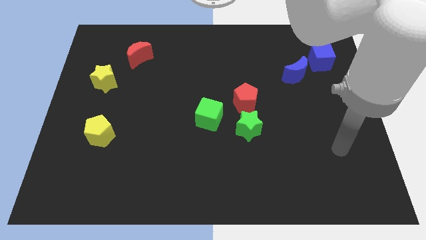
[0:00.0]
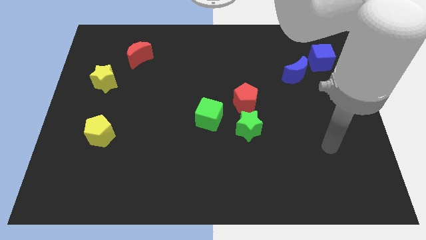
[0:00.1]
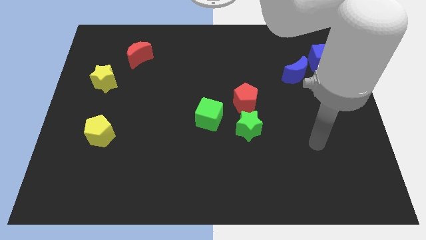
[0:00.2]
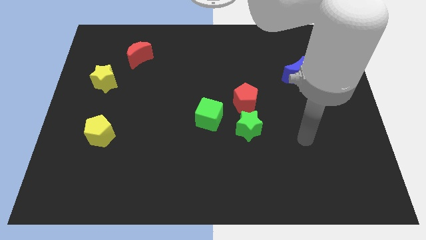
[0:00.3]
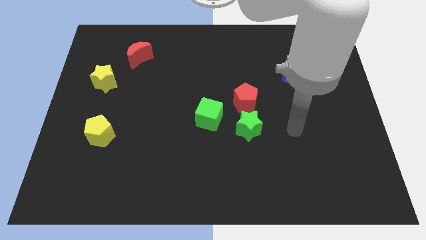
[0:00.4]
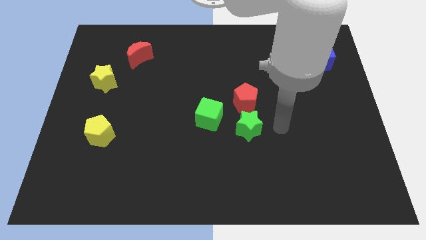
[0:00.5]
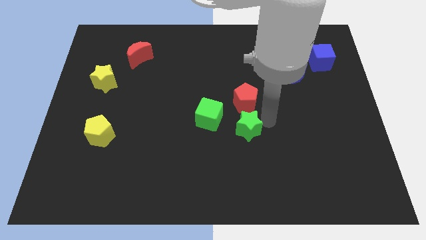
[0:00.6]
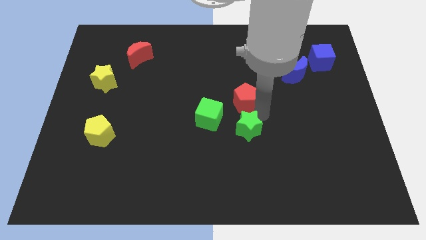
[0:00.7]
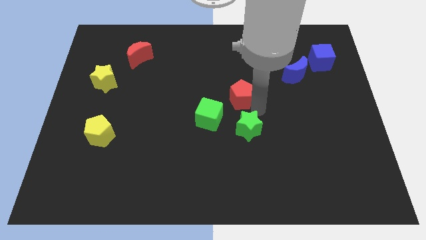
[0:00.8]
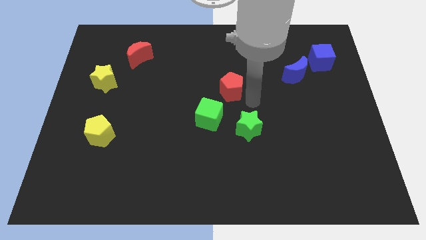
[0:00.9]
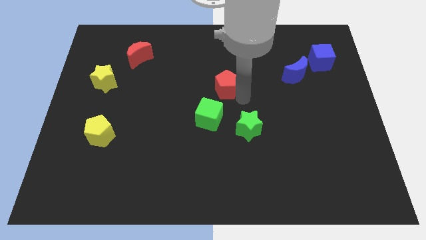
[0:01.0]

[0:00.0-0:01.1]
pull the green star apart from the red pentagon and green cube

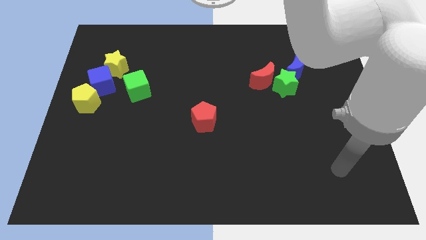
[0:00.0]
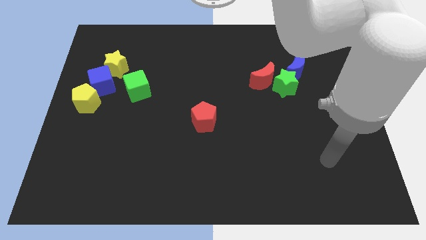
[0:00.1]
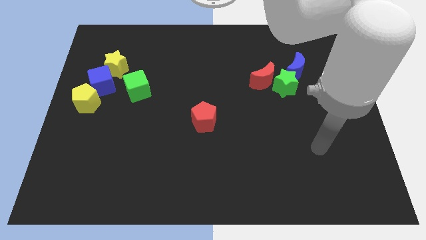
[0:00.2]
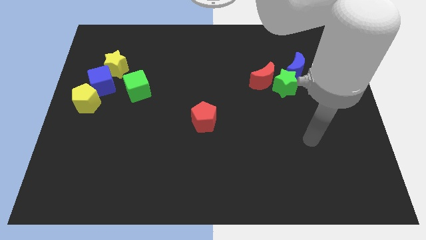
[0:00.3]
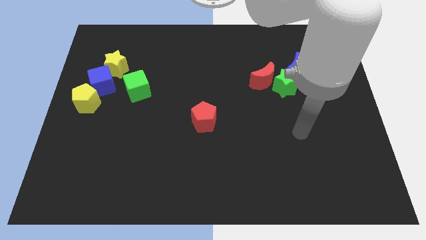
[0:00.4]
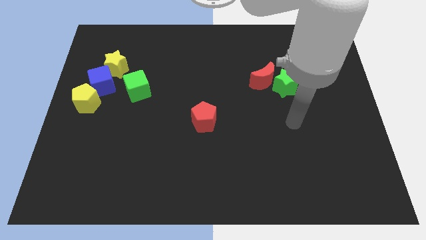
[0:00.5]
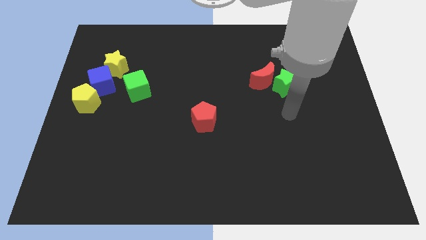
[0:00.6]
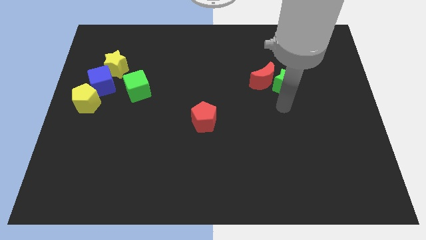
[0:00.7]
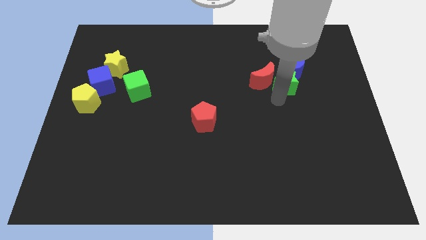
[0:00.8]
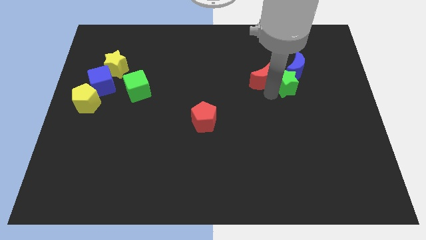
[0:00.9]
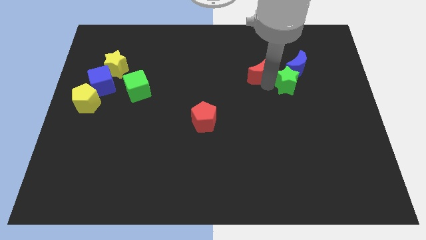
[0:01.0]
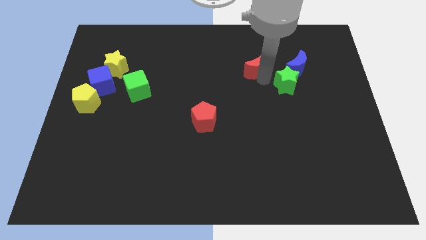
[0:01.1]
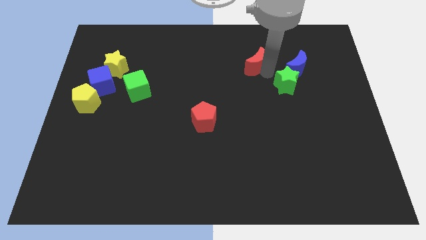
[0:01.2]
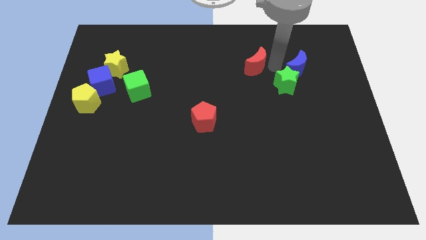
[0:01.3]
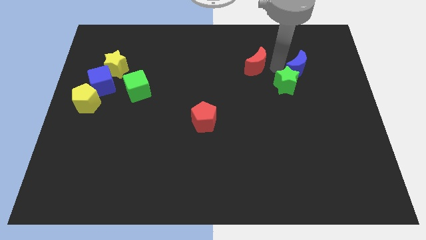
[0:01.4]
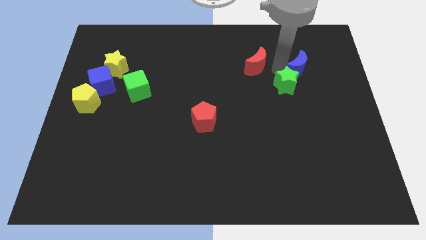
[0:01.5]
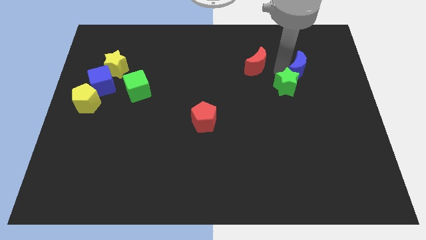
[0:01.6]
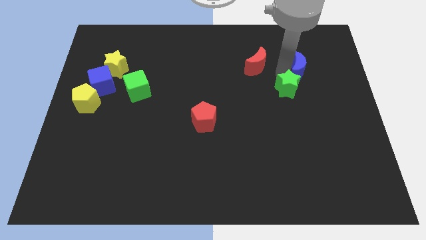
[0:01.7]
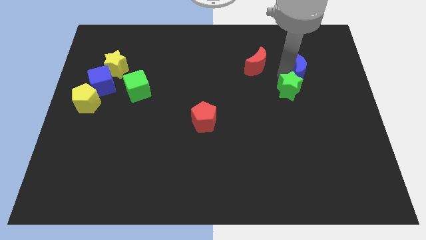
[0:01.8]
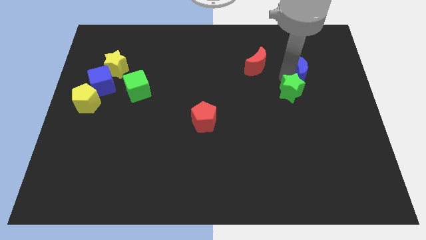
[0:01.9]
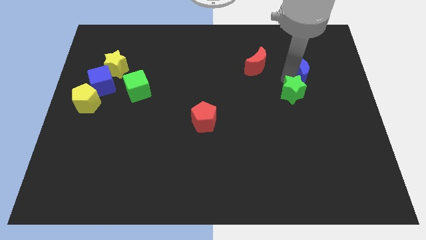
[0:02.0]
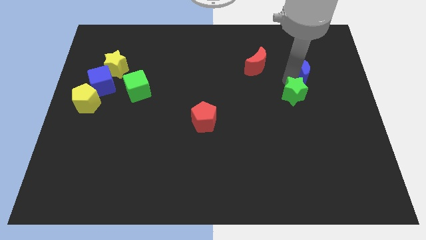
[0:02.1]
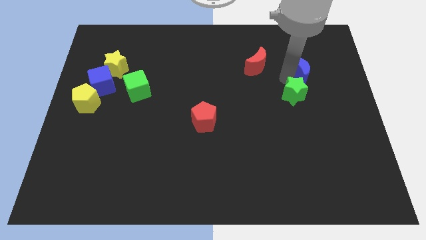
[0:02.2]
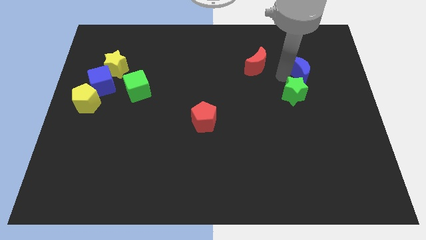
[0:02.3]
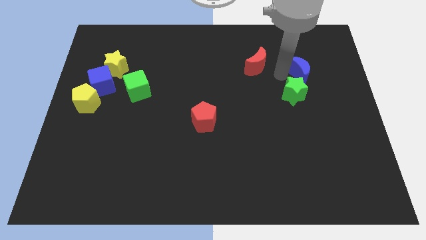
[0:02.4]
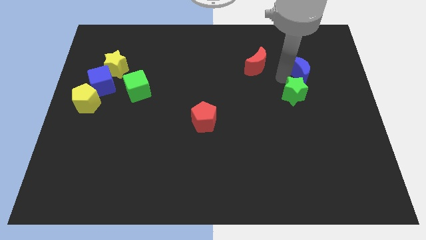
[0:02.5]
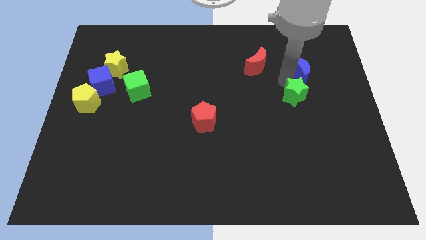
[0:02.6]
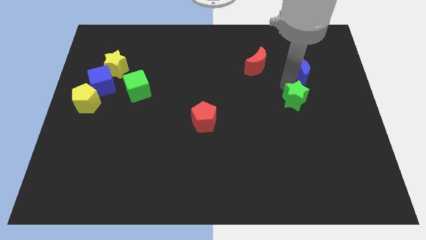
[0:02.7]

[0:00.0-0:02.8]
separate the green star from the red moon and blue moon

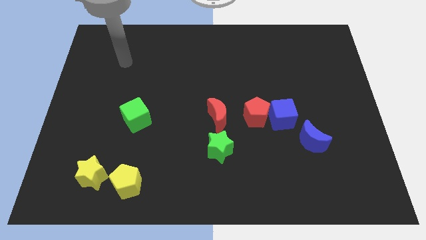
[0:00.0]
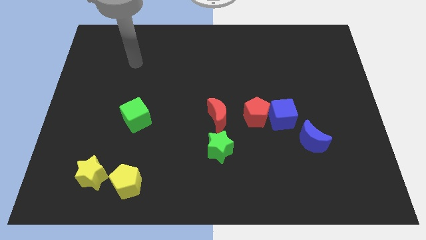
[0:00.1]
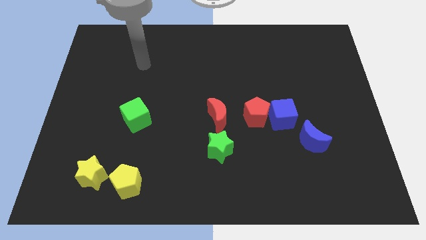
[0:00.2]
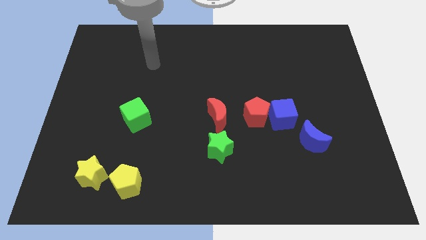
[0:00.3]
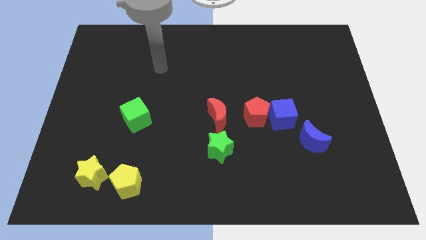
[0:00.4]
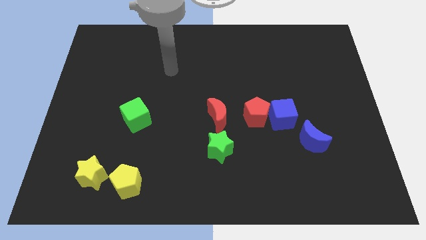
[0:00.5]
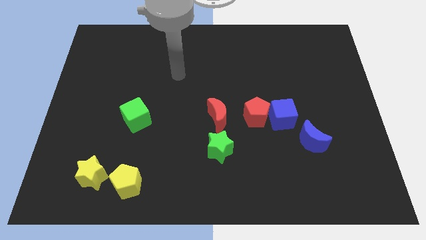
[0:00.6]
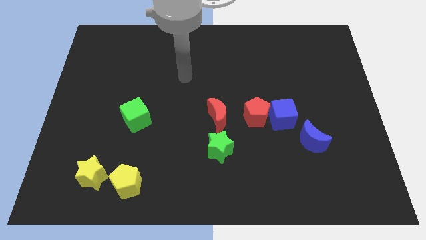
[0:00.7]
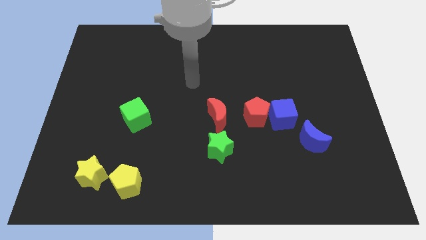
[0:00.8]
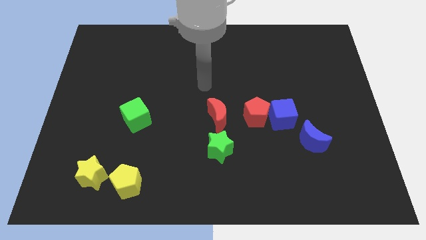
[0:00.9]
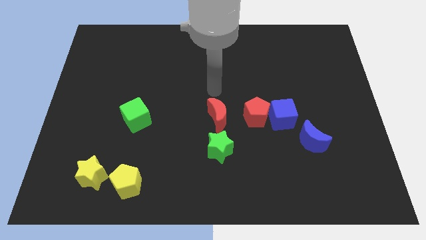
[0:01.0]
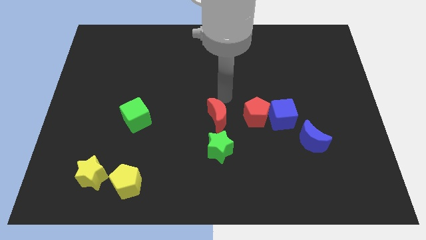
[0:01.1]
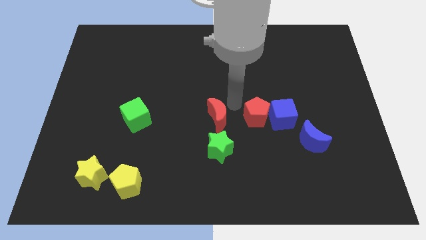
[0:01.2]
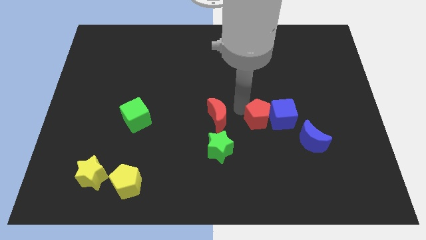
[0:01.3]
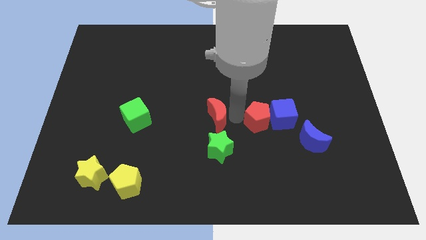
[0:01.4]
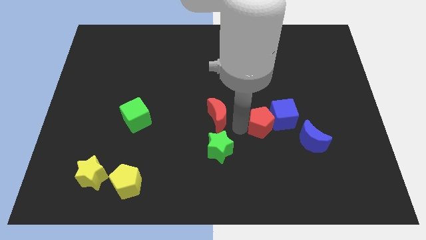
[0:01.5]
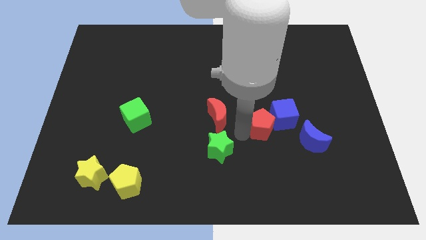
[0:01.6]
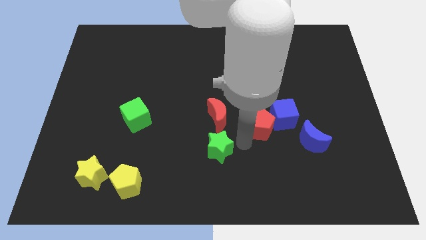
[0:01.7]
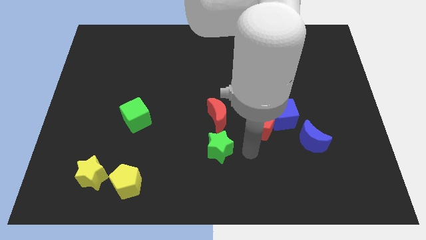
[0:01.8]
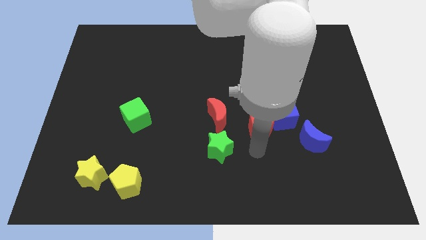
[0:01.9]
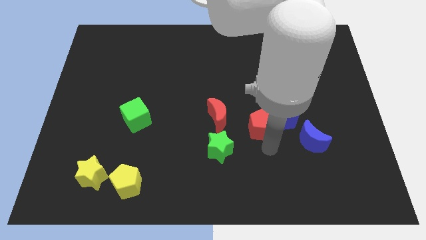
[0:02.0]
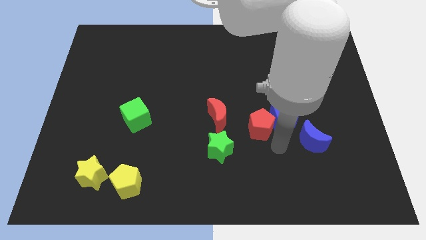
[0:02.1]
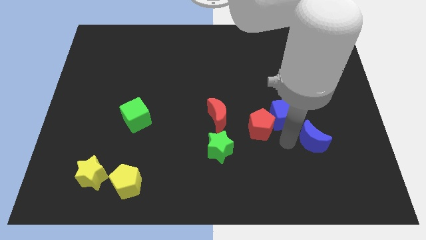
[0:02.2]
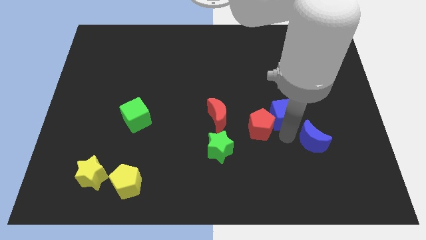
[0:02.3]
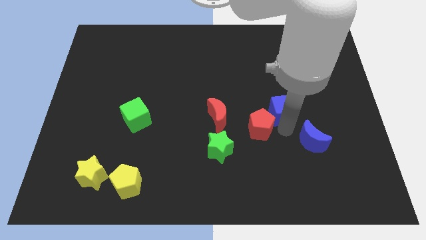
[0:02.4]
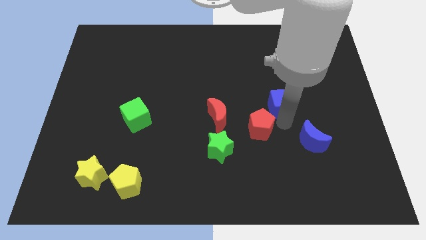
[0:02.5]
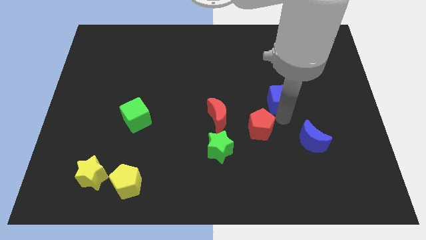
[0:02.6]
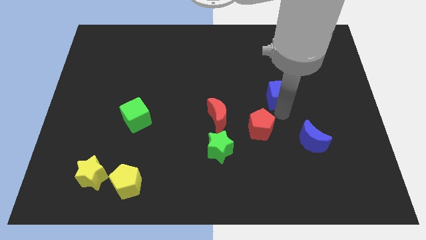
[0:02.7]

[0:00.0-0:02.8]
move the blue cube away from the red pentagon and blue moon

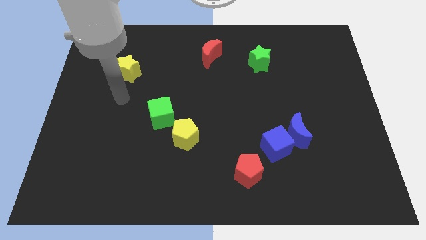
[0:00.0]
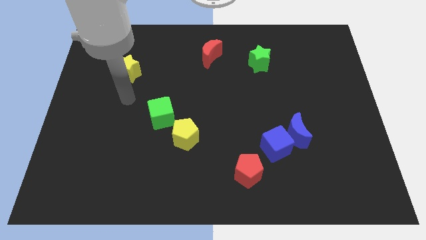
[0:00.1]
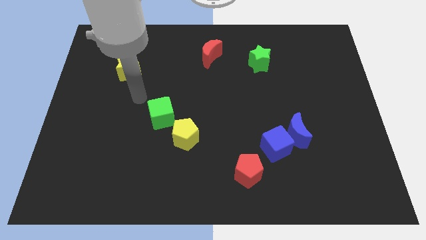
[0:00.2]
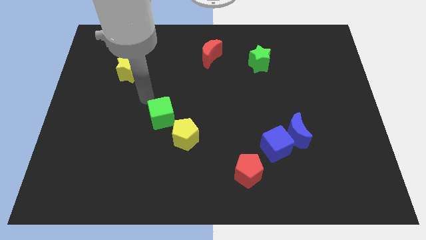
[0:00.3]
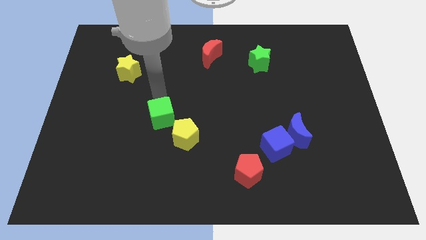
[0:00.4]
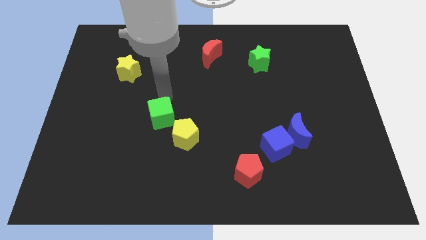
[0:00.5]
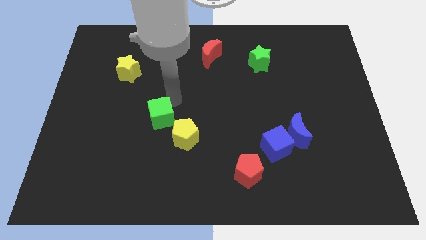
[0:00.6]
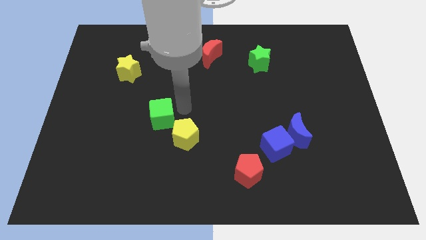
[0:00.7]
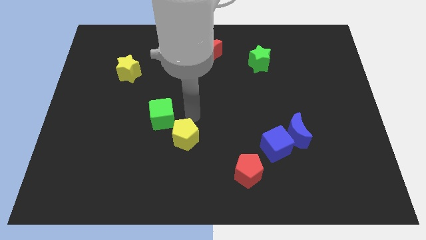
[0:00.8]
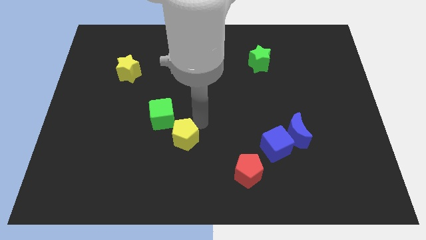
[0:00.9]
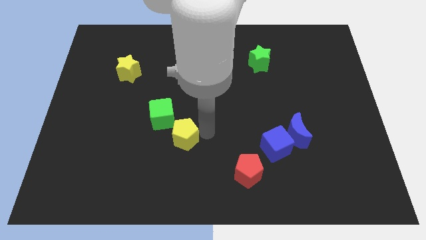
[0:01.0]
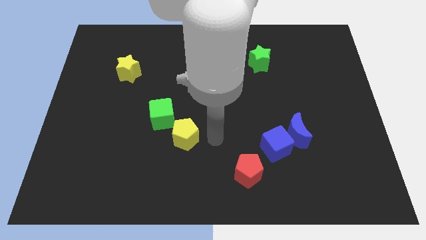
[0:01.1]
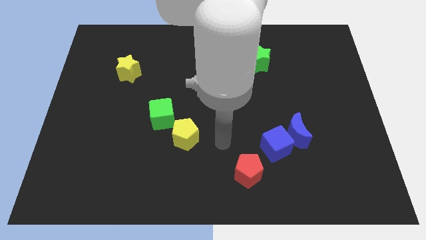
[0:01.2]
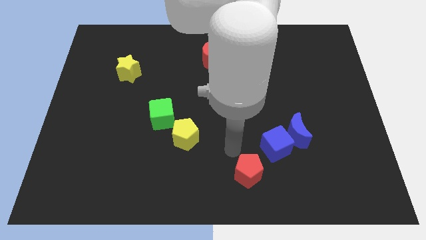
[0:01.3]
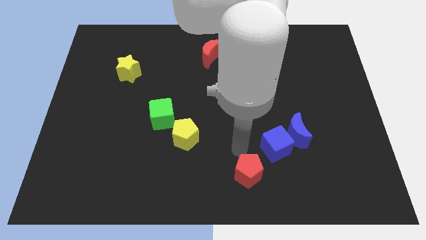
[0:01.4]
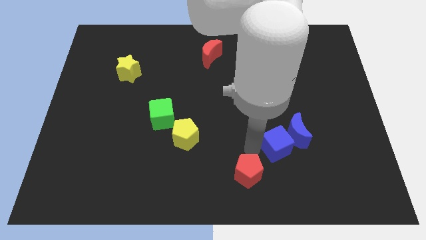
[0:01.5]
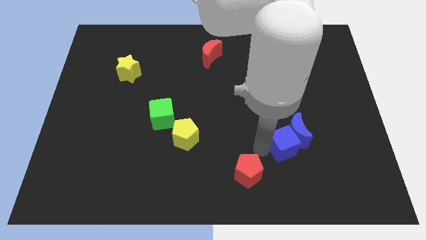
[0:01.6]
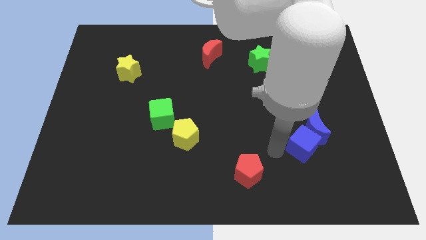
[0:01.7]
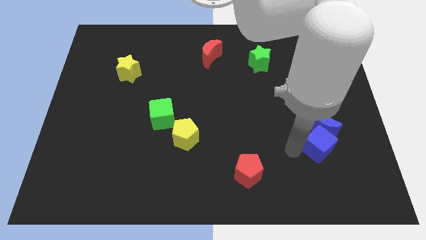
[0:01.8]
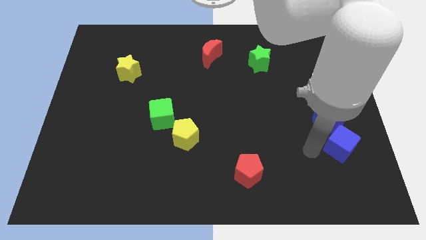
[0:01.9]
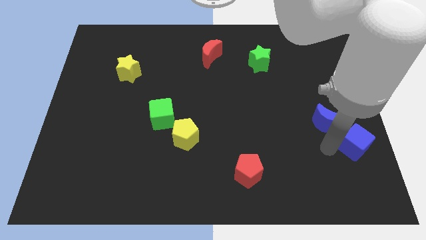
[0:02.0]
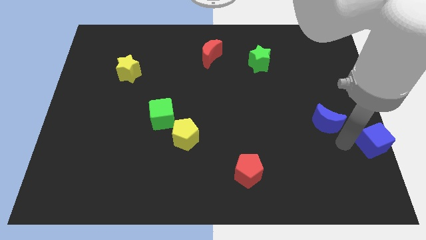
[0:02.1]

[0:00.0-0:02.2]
pull the blue moon apart from the blue cube

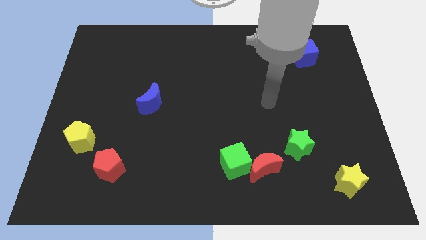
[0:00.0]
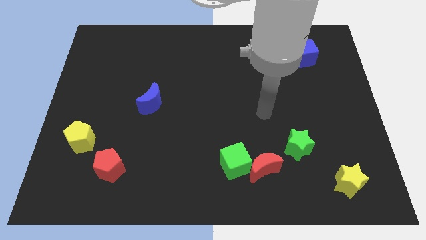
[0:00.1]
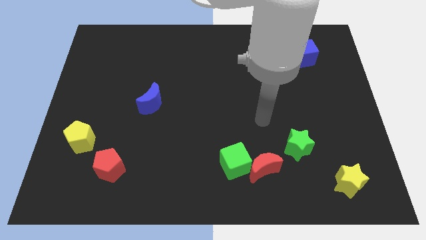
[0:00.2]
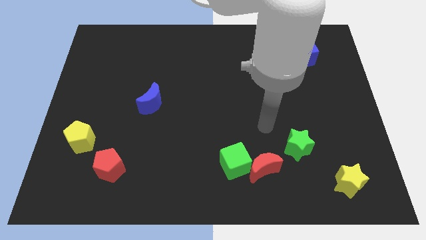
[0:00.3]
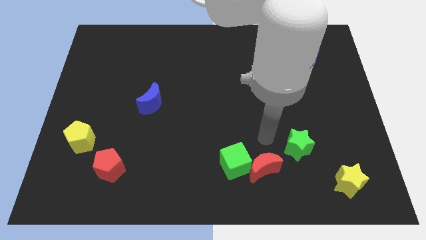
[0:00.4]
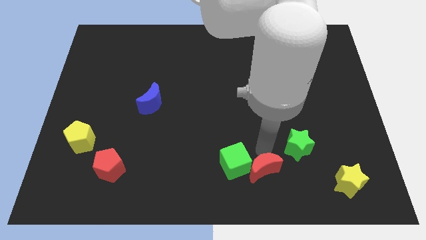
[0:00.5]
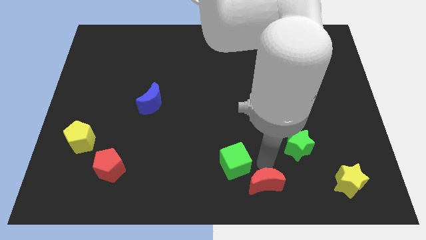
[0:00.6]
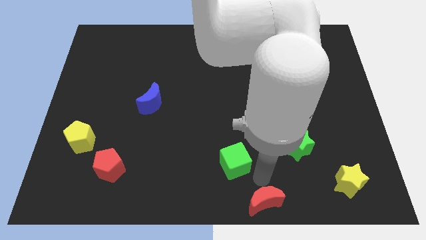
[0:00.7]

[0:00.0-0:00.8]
pull the green cube apart from the red moon
